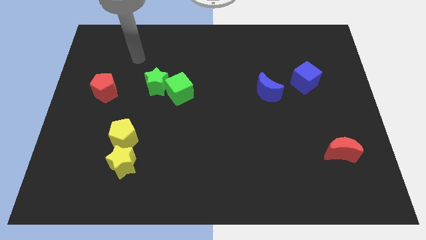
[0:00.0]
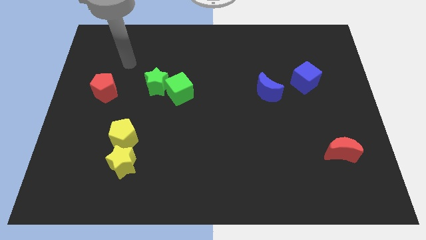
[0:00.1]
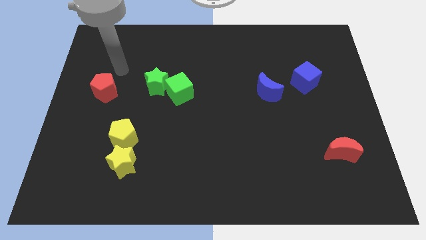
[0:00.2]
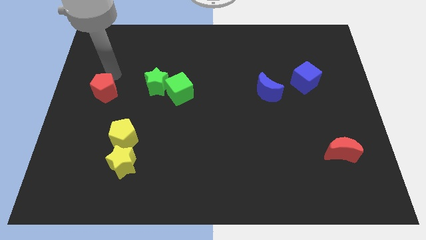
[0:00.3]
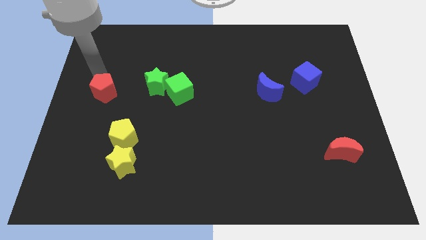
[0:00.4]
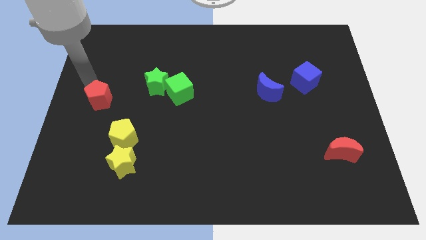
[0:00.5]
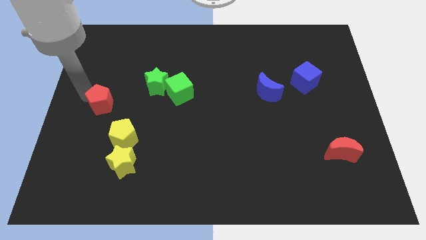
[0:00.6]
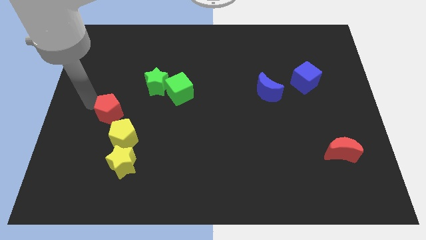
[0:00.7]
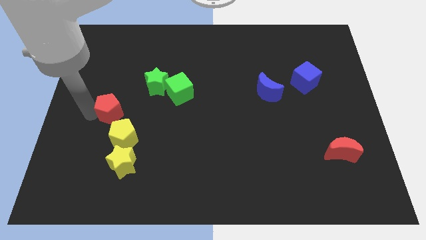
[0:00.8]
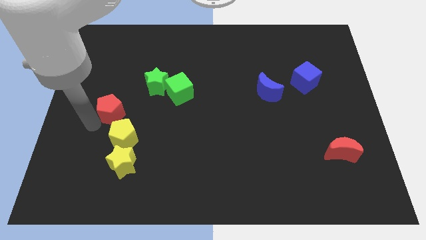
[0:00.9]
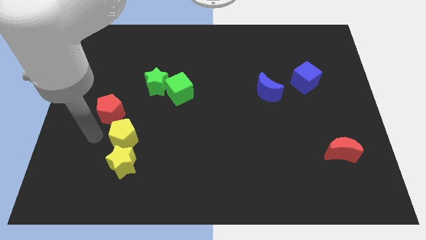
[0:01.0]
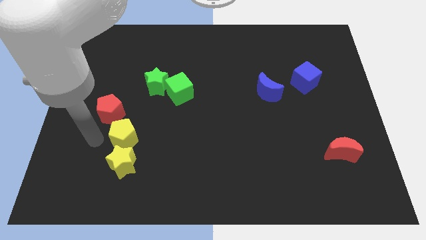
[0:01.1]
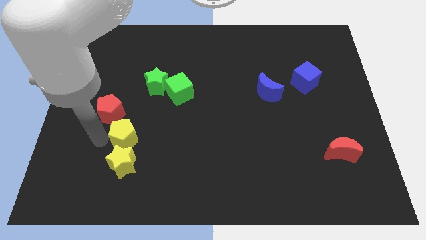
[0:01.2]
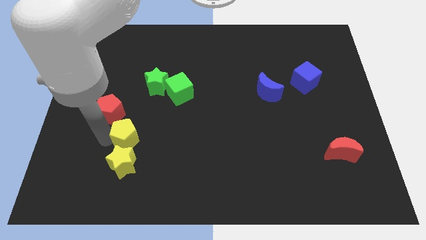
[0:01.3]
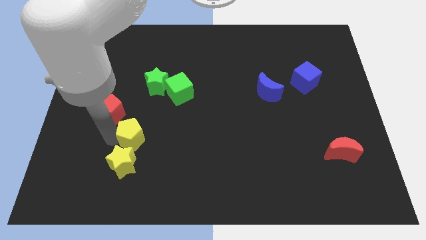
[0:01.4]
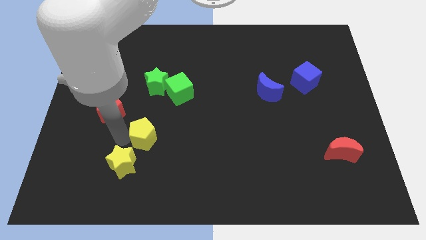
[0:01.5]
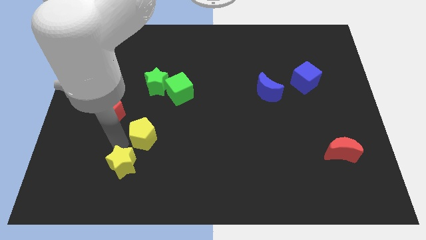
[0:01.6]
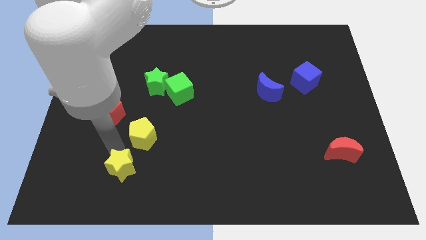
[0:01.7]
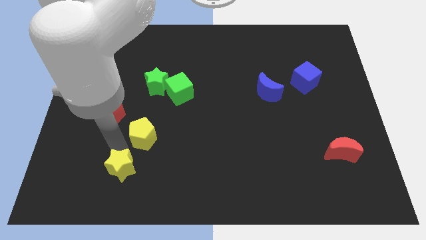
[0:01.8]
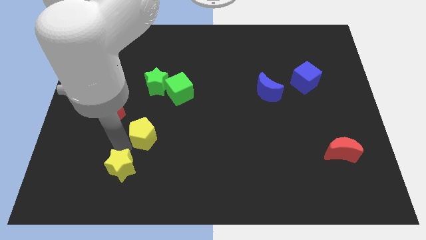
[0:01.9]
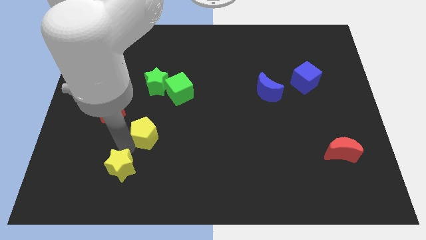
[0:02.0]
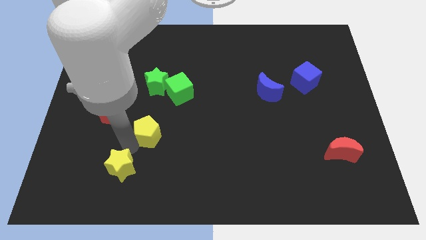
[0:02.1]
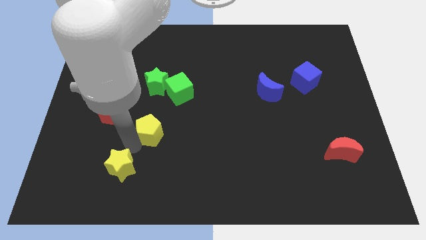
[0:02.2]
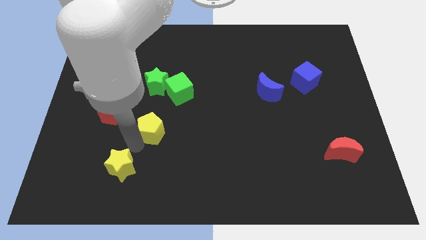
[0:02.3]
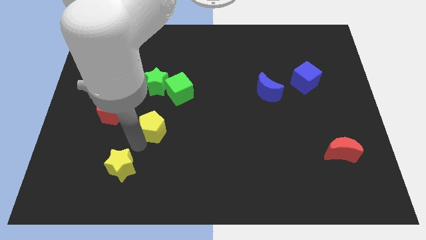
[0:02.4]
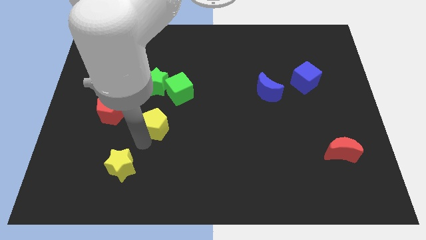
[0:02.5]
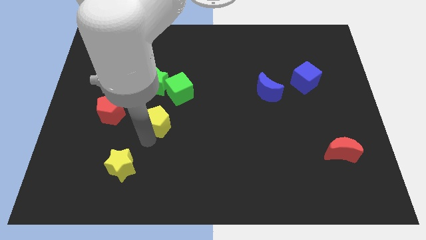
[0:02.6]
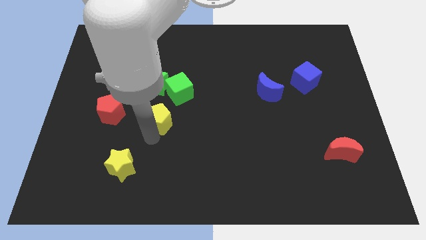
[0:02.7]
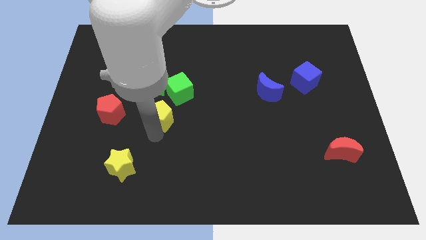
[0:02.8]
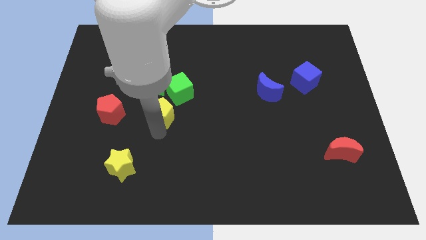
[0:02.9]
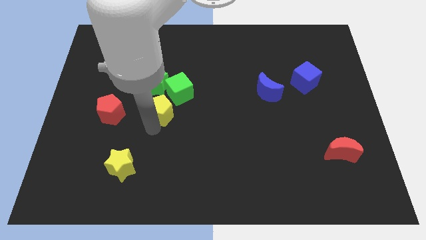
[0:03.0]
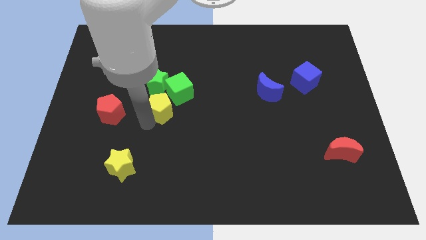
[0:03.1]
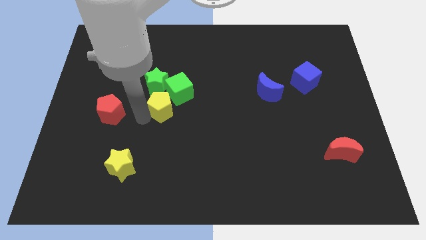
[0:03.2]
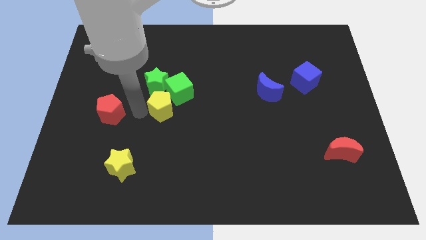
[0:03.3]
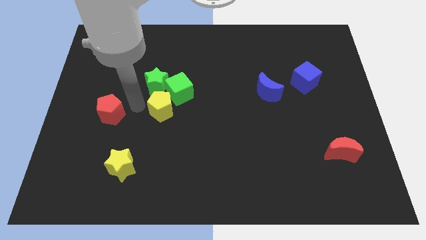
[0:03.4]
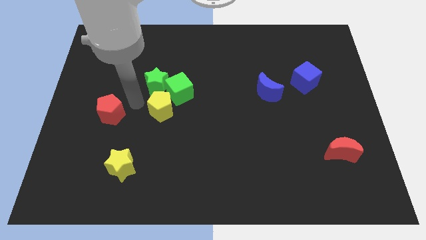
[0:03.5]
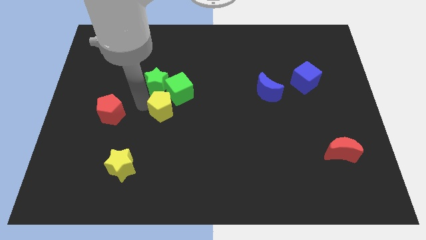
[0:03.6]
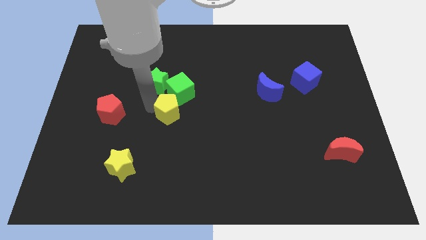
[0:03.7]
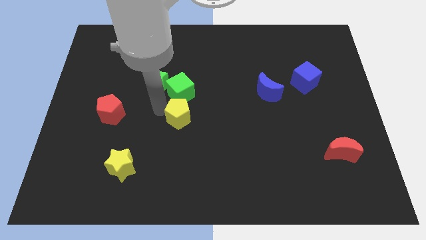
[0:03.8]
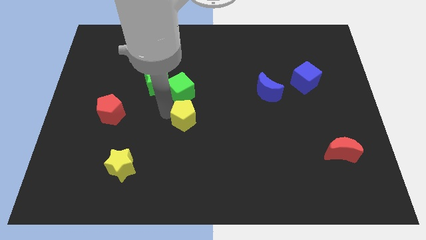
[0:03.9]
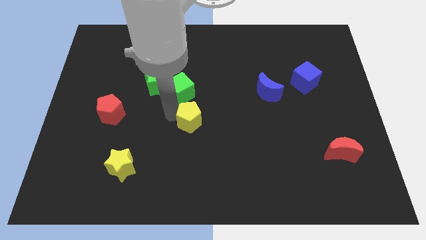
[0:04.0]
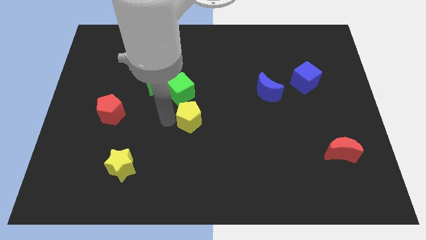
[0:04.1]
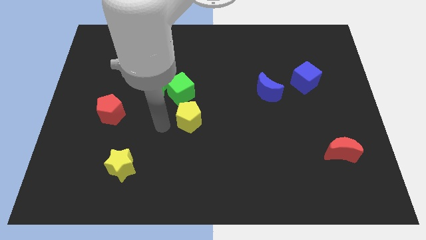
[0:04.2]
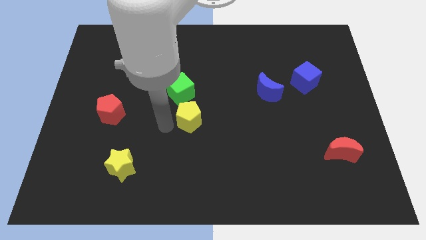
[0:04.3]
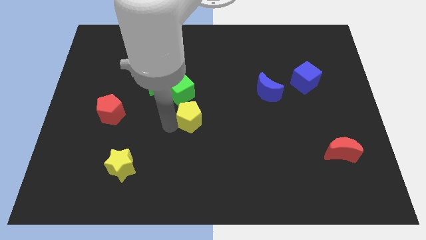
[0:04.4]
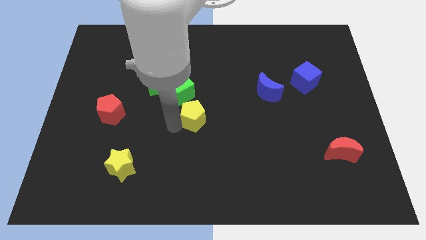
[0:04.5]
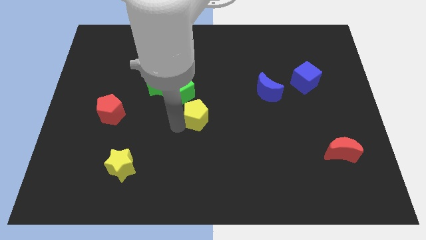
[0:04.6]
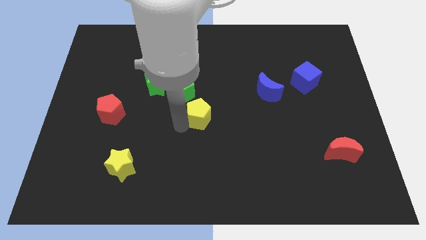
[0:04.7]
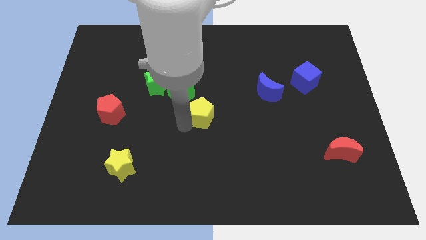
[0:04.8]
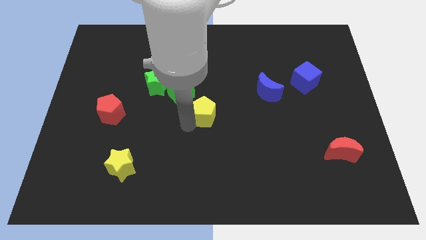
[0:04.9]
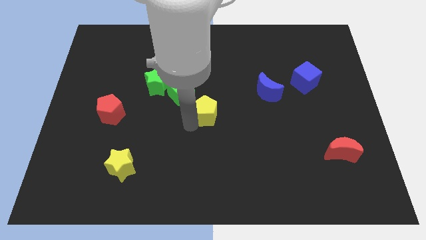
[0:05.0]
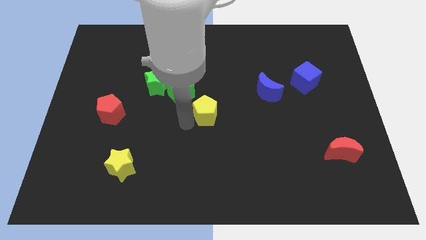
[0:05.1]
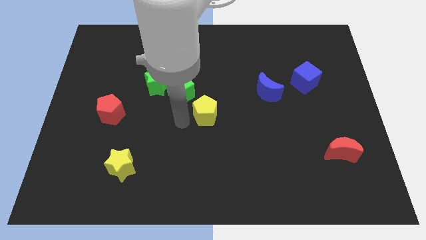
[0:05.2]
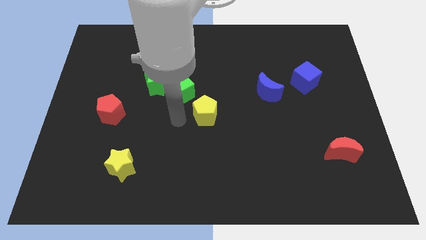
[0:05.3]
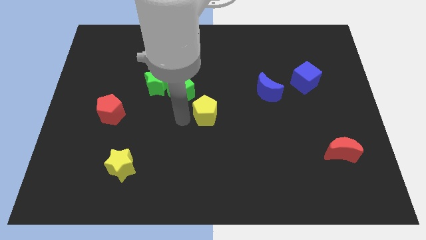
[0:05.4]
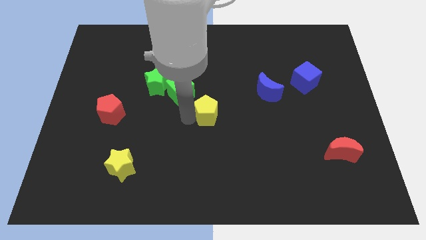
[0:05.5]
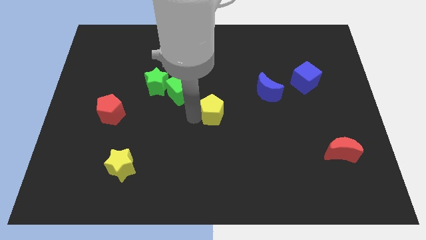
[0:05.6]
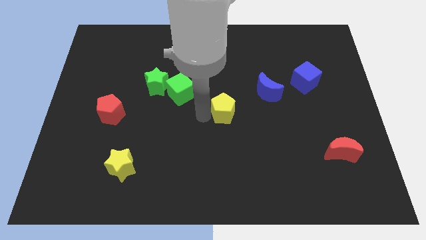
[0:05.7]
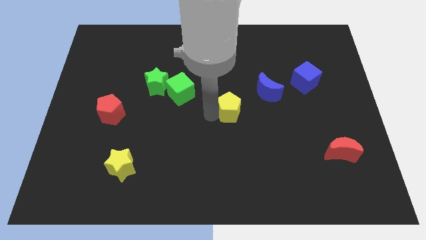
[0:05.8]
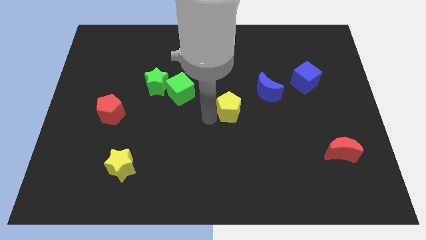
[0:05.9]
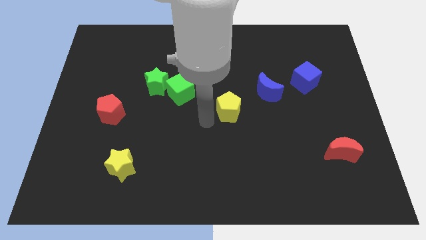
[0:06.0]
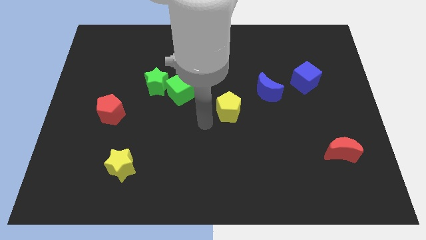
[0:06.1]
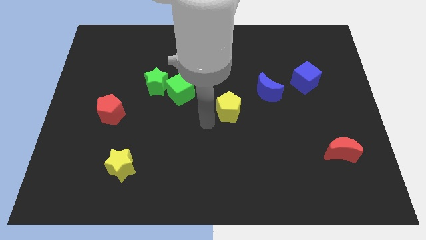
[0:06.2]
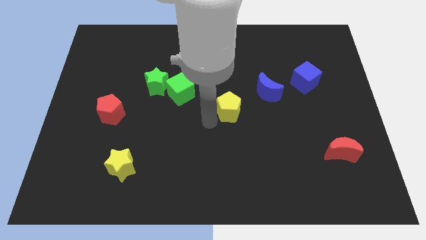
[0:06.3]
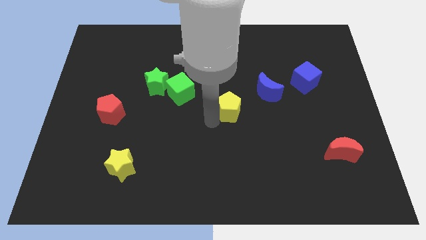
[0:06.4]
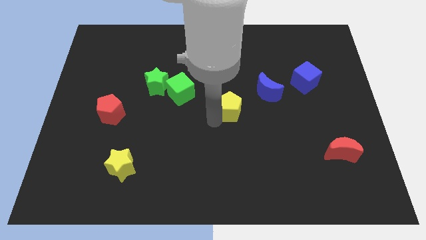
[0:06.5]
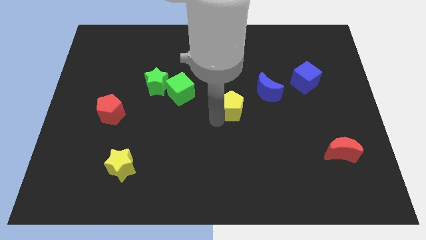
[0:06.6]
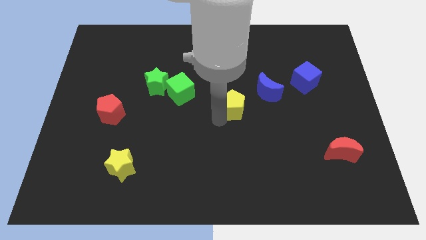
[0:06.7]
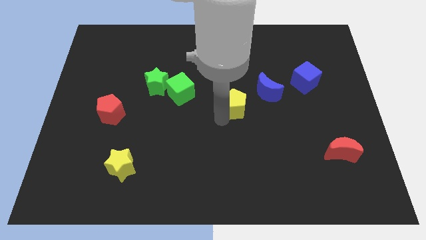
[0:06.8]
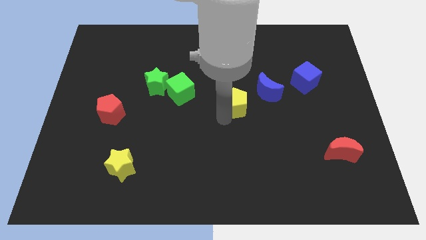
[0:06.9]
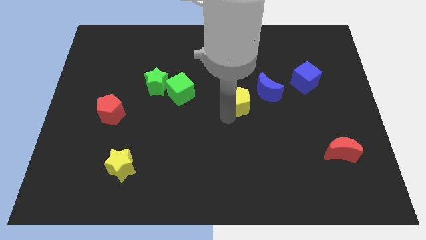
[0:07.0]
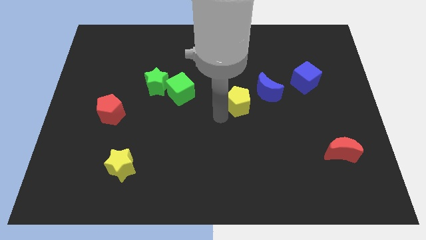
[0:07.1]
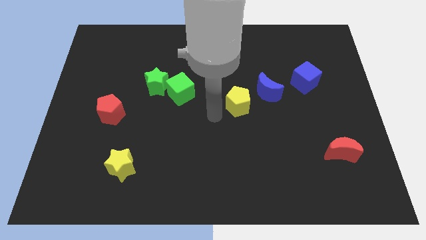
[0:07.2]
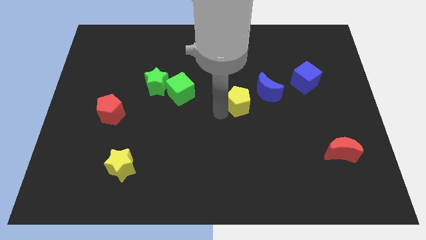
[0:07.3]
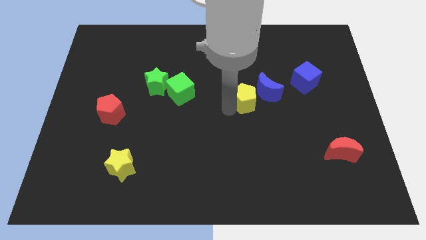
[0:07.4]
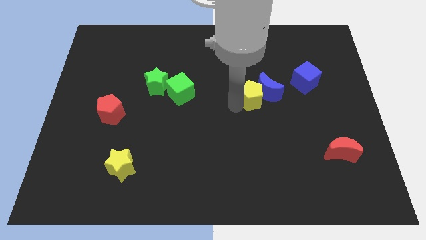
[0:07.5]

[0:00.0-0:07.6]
move the yellow pentagon to the blue moon
